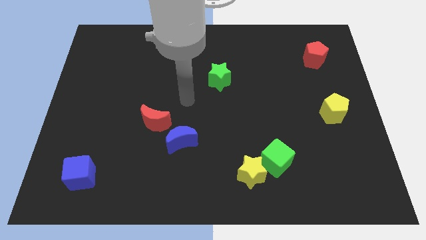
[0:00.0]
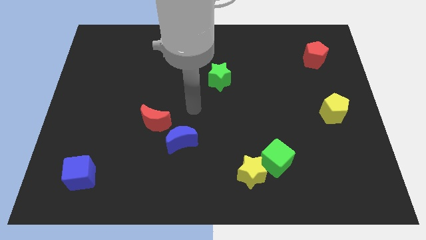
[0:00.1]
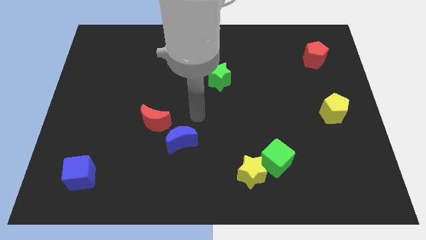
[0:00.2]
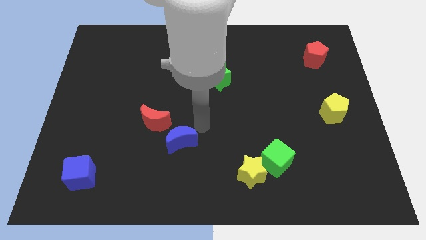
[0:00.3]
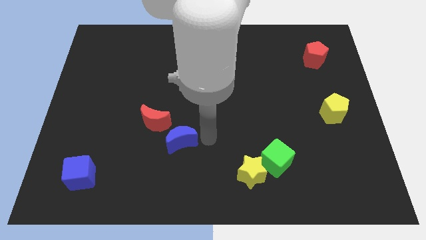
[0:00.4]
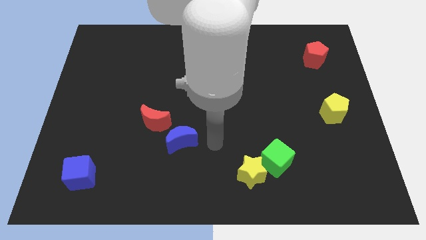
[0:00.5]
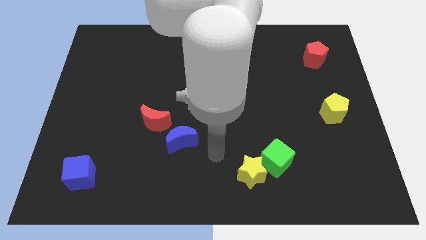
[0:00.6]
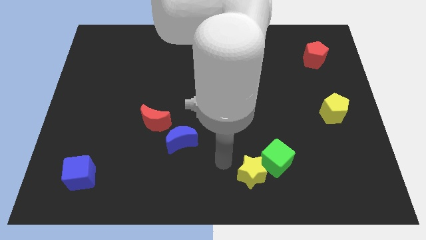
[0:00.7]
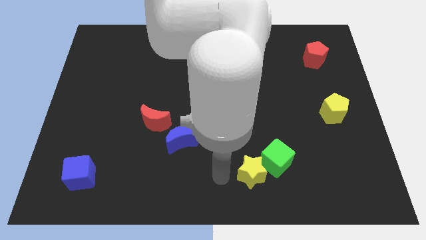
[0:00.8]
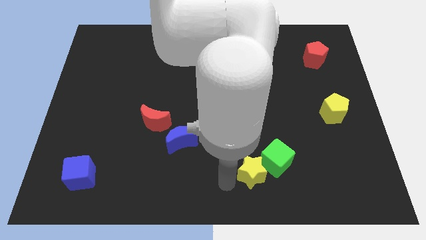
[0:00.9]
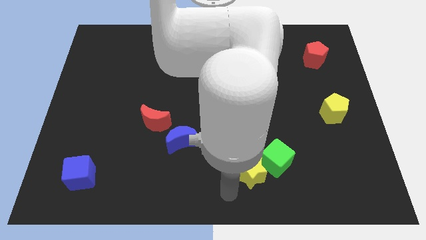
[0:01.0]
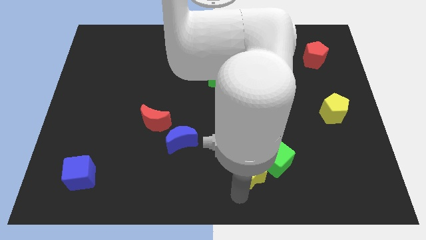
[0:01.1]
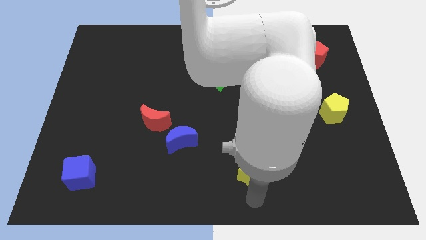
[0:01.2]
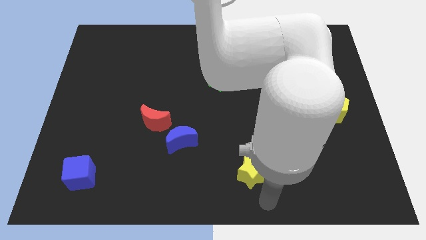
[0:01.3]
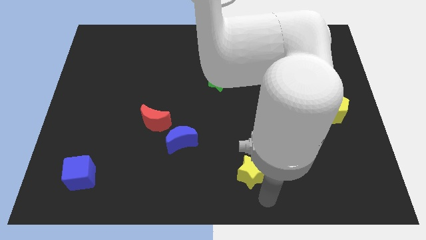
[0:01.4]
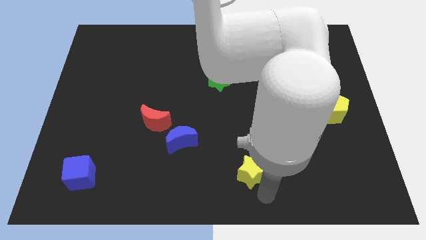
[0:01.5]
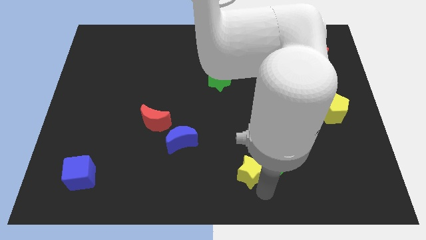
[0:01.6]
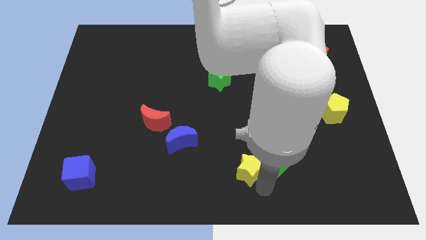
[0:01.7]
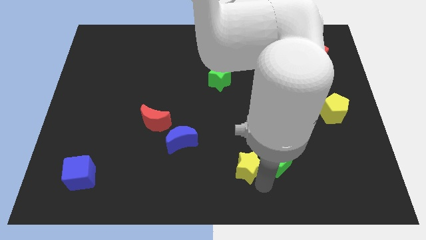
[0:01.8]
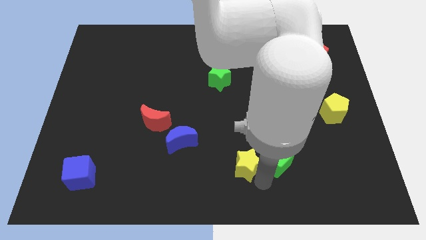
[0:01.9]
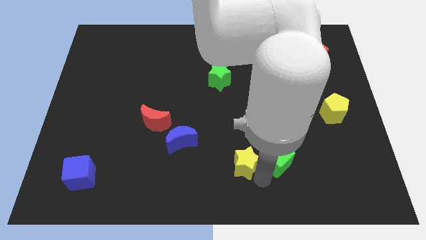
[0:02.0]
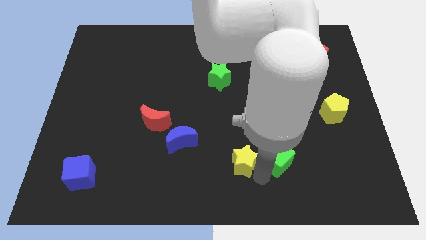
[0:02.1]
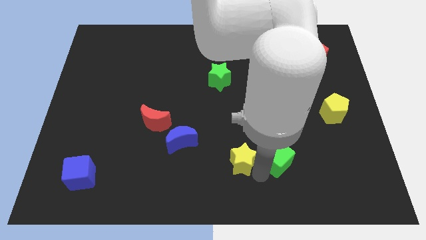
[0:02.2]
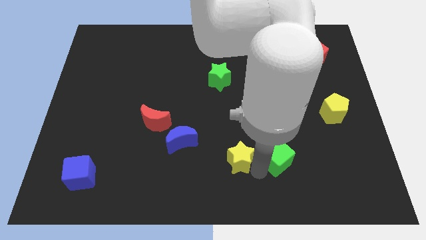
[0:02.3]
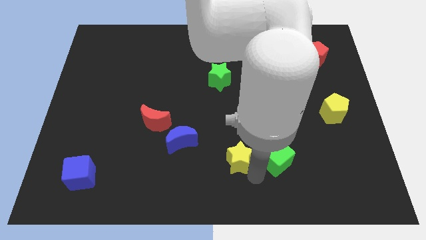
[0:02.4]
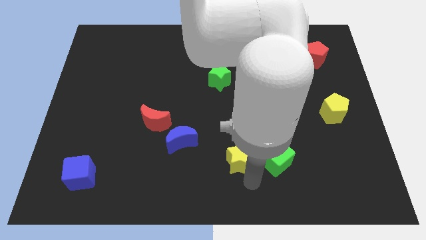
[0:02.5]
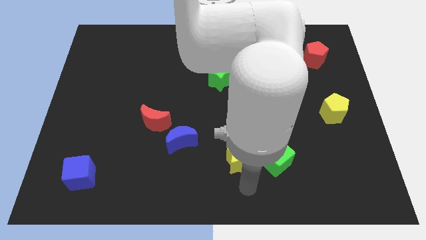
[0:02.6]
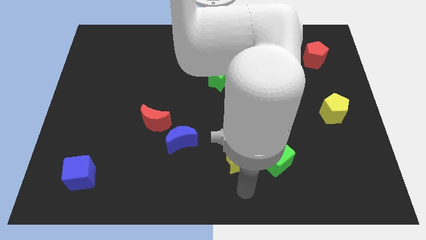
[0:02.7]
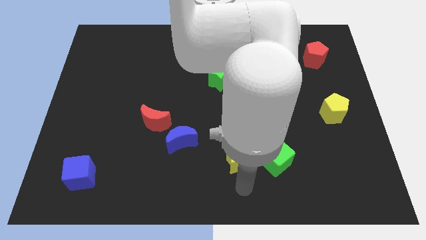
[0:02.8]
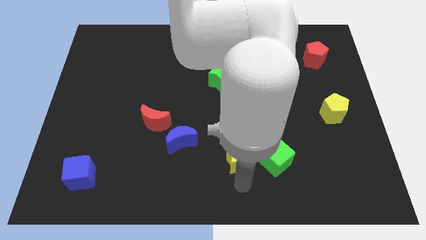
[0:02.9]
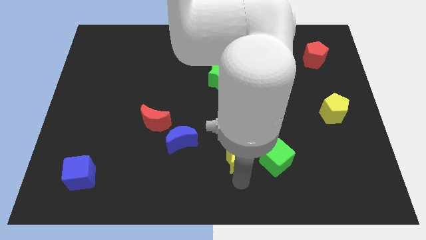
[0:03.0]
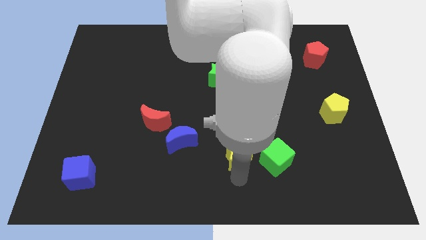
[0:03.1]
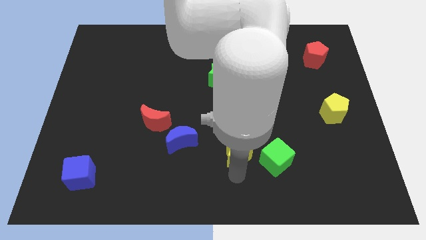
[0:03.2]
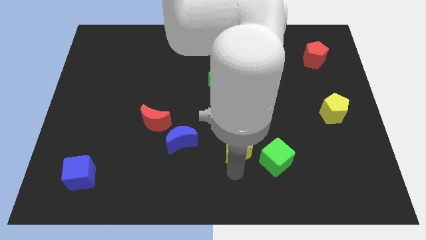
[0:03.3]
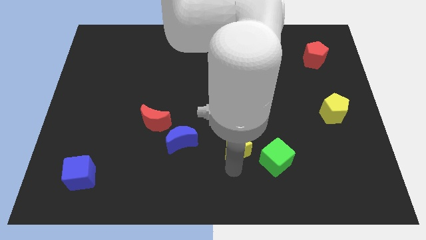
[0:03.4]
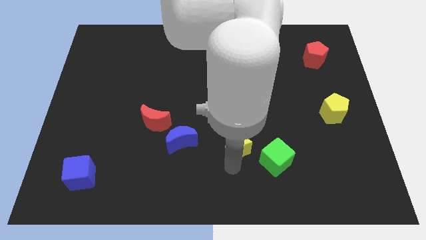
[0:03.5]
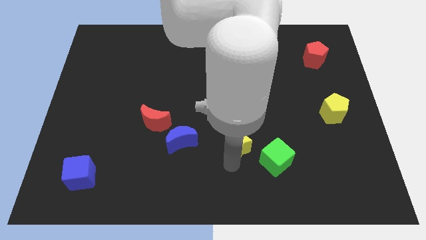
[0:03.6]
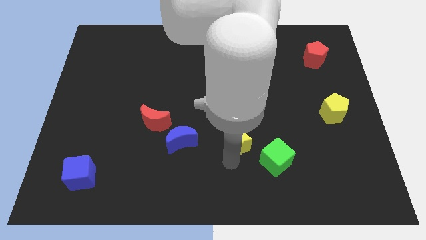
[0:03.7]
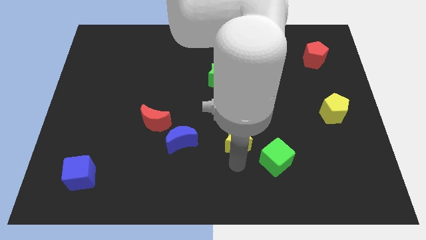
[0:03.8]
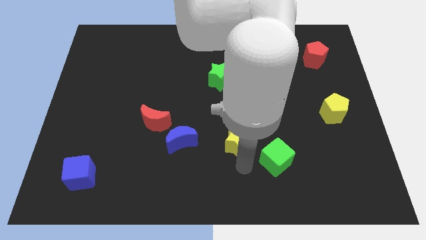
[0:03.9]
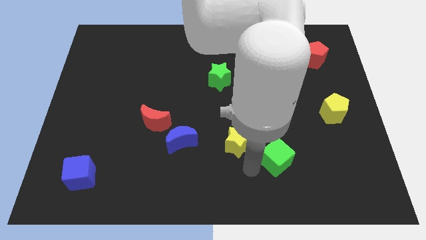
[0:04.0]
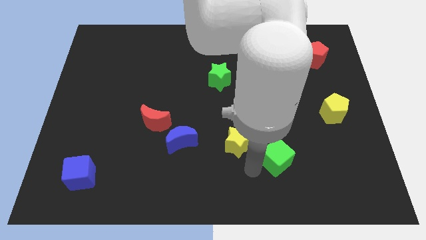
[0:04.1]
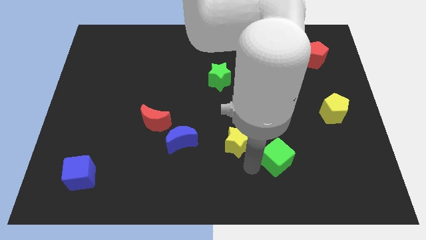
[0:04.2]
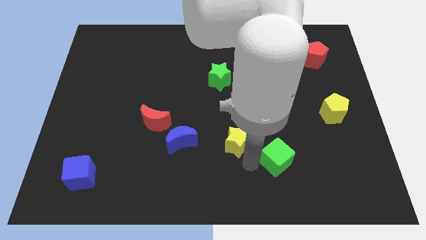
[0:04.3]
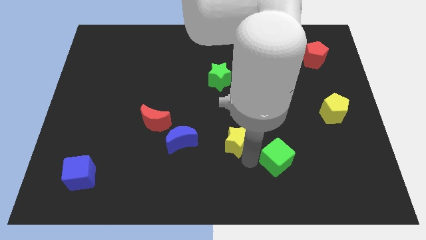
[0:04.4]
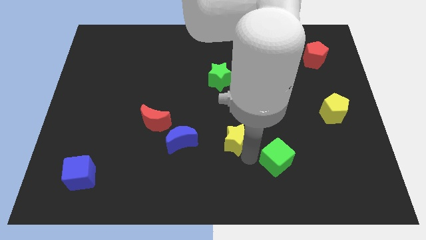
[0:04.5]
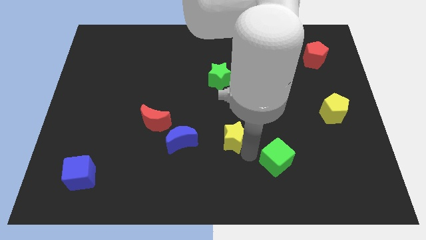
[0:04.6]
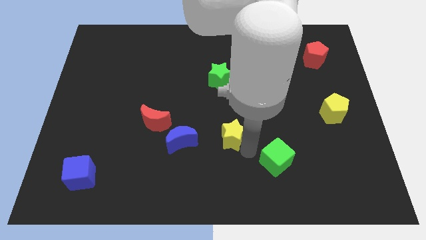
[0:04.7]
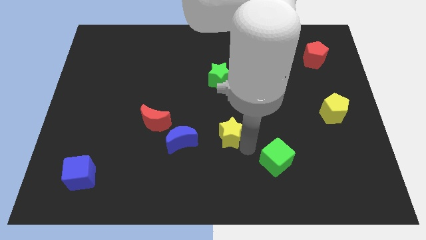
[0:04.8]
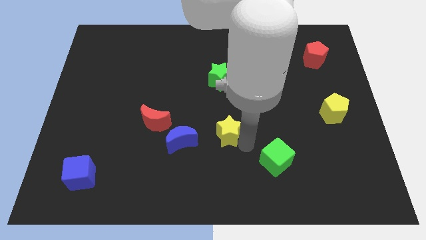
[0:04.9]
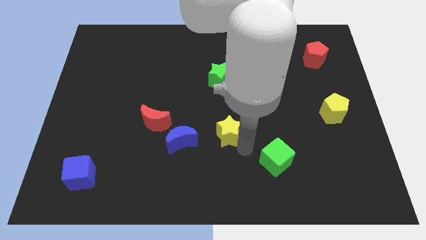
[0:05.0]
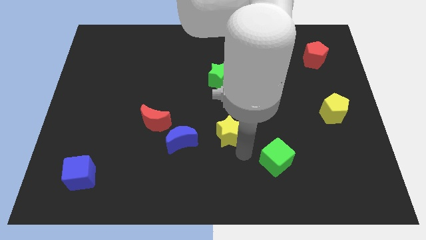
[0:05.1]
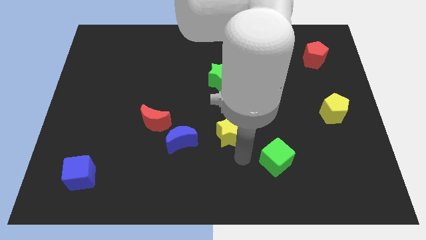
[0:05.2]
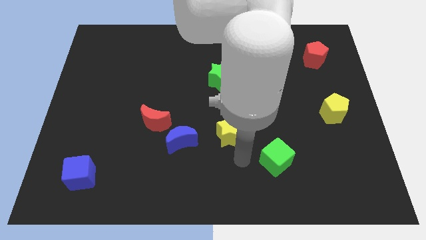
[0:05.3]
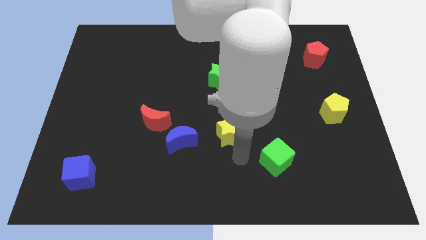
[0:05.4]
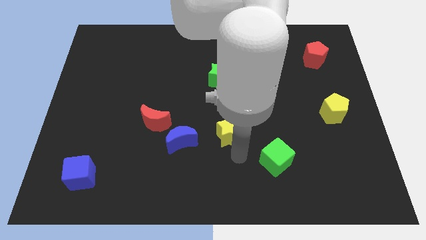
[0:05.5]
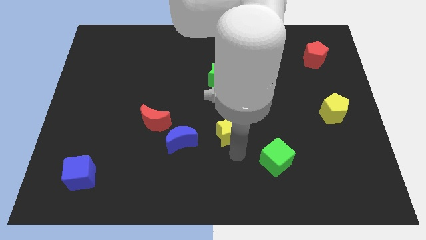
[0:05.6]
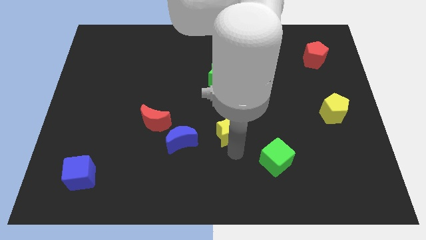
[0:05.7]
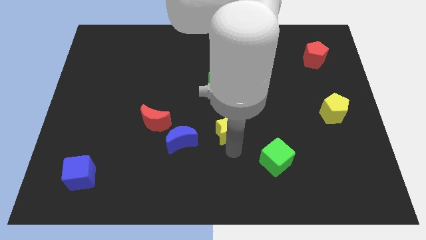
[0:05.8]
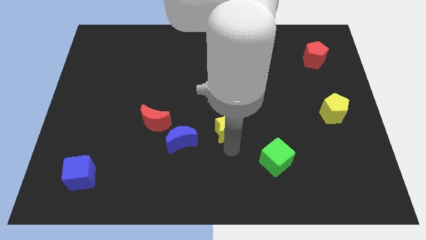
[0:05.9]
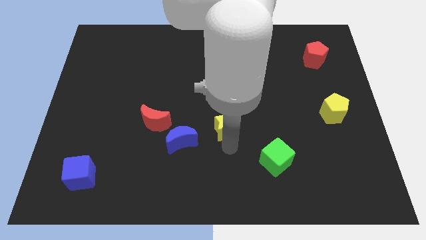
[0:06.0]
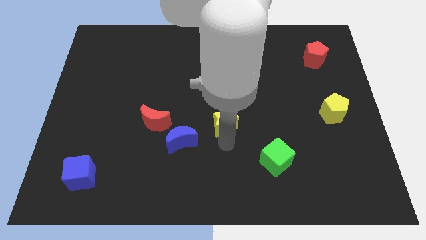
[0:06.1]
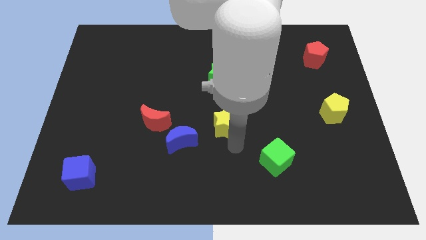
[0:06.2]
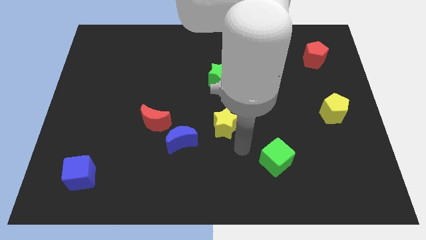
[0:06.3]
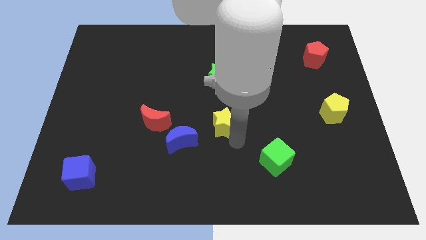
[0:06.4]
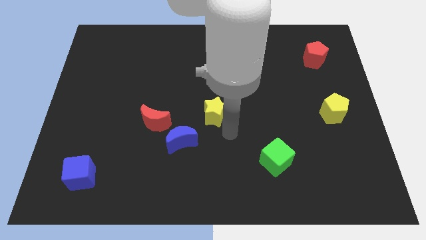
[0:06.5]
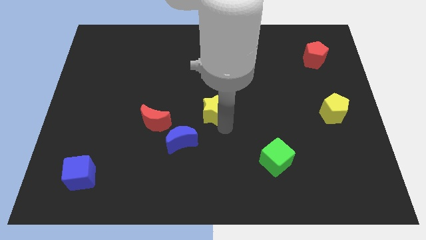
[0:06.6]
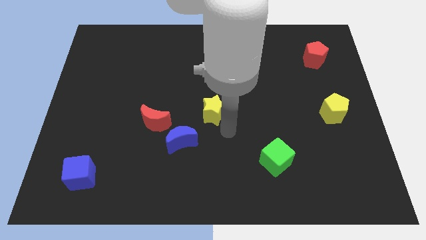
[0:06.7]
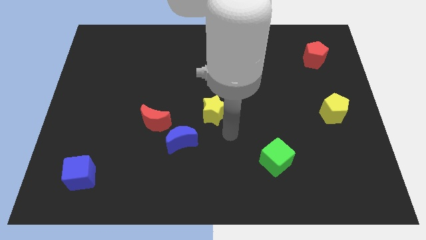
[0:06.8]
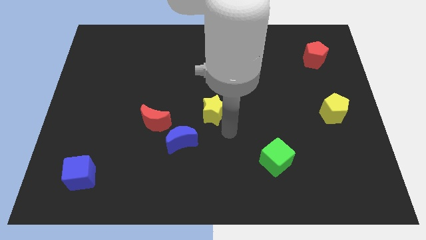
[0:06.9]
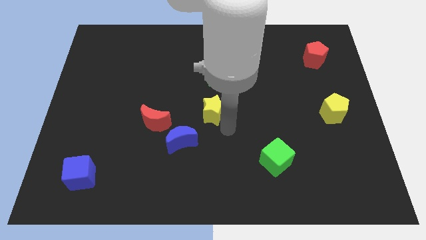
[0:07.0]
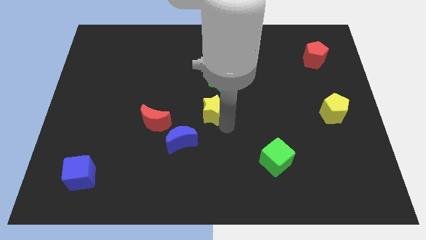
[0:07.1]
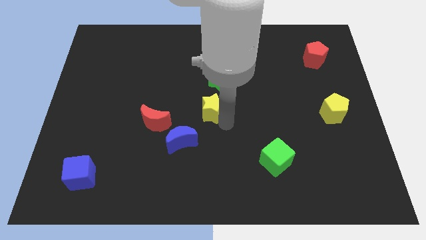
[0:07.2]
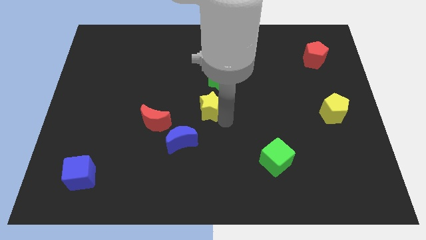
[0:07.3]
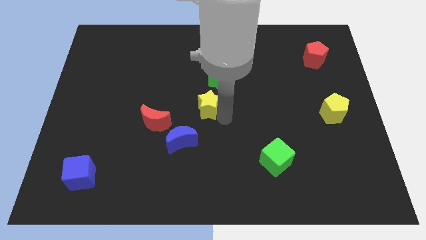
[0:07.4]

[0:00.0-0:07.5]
push the yellow star to the bottom left side of the green star

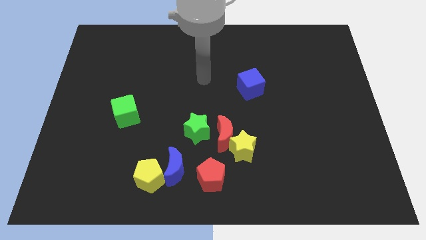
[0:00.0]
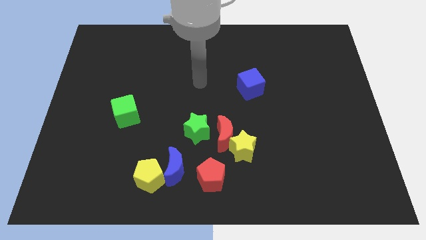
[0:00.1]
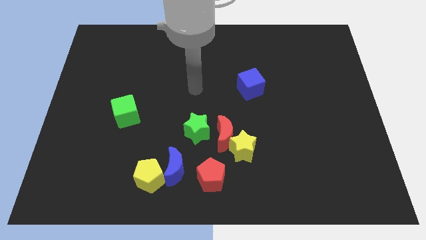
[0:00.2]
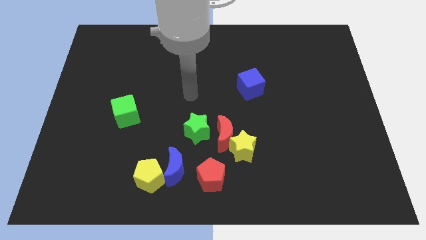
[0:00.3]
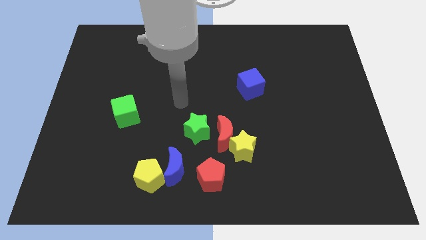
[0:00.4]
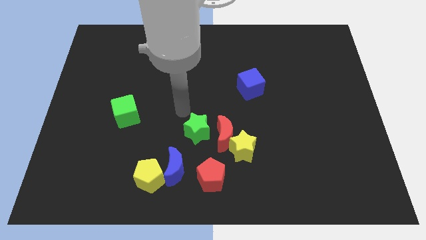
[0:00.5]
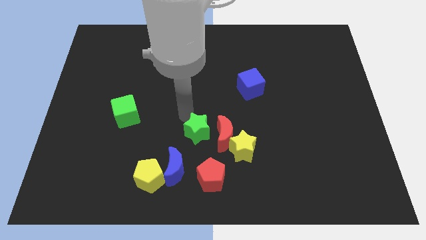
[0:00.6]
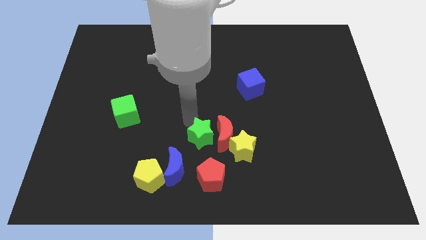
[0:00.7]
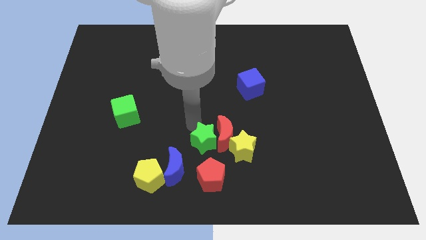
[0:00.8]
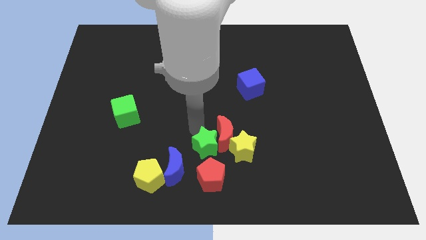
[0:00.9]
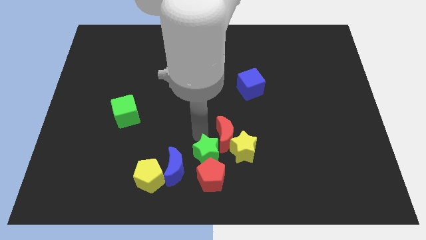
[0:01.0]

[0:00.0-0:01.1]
push the green star right of the blue moon
